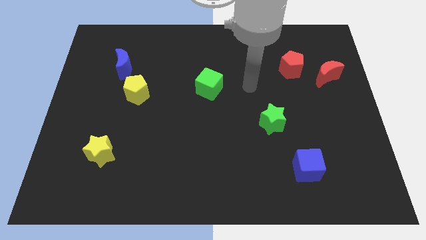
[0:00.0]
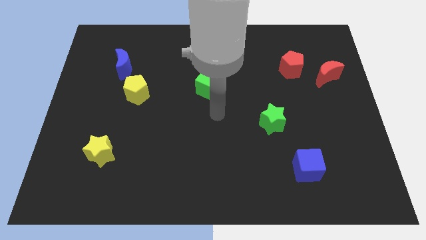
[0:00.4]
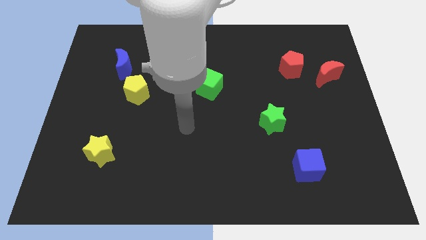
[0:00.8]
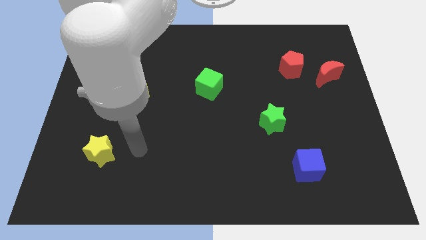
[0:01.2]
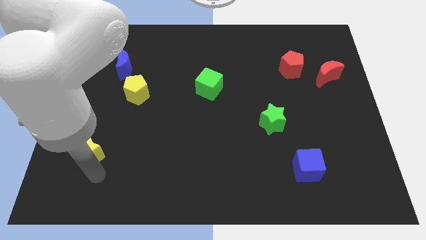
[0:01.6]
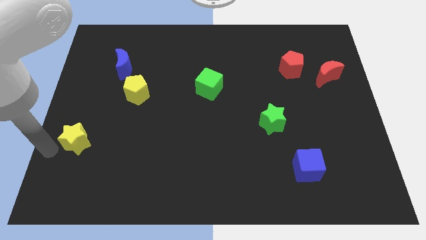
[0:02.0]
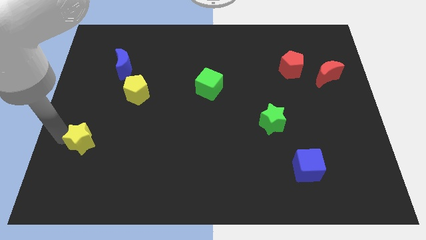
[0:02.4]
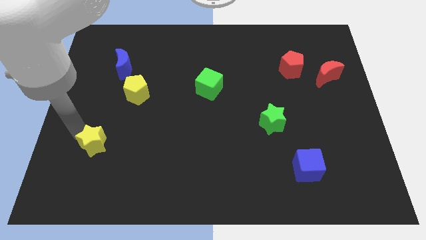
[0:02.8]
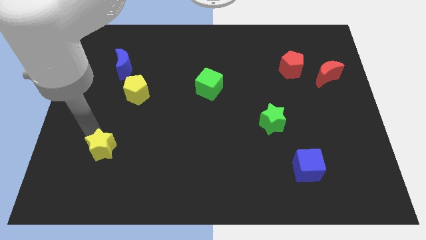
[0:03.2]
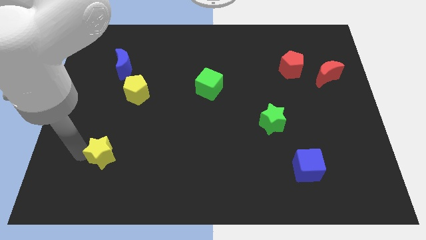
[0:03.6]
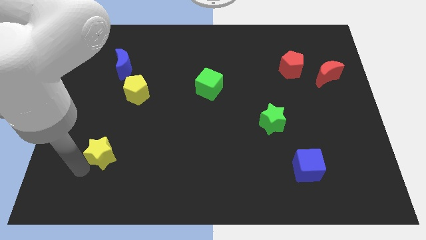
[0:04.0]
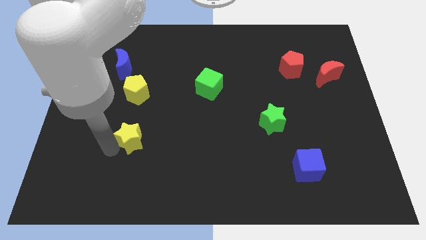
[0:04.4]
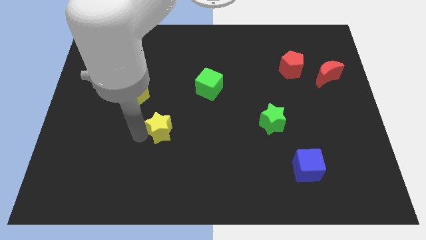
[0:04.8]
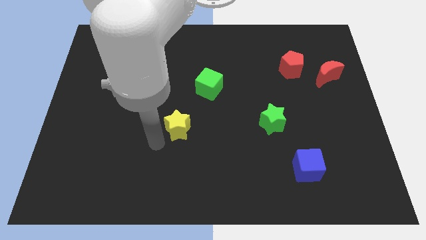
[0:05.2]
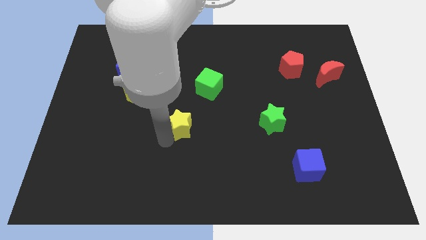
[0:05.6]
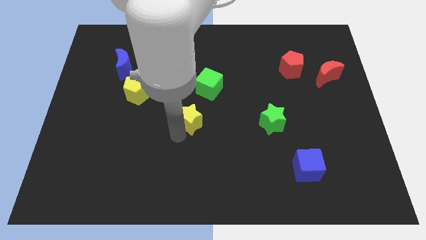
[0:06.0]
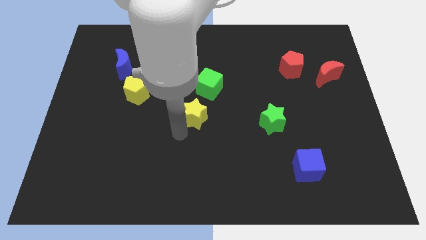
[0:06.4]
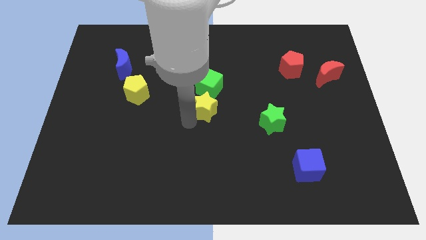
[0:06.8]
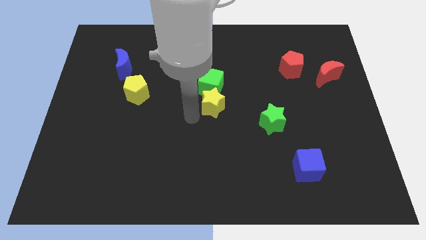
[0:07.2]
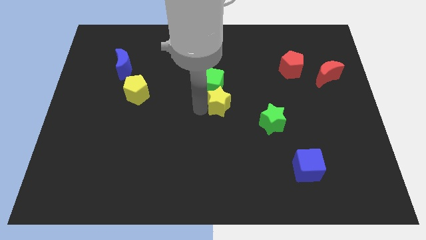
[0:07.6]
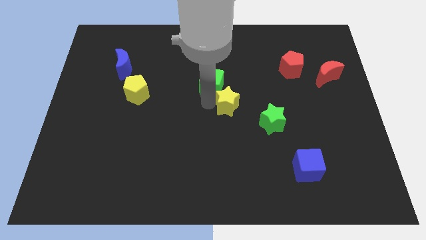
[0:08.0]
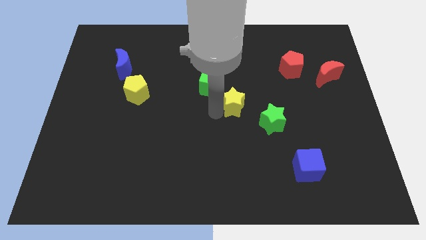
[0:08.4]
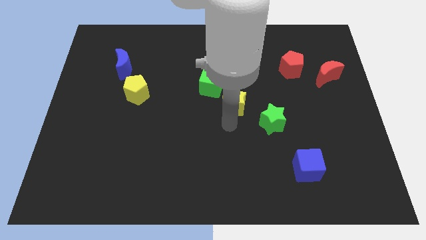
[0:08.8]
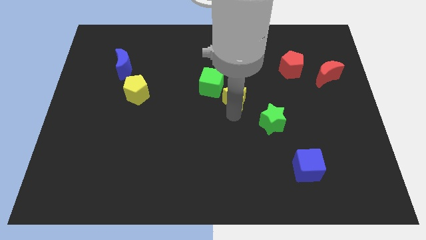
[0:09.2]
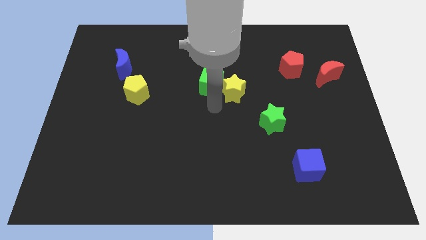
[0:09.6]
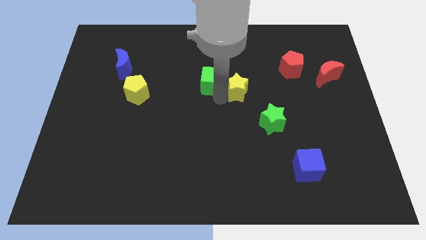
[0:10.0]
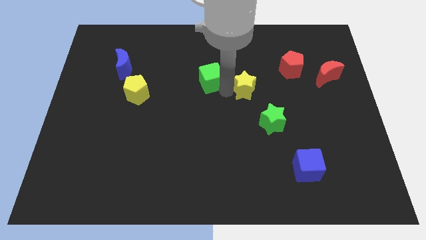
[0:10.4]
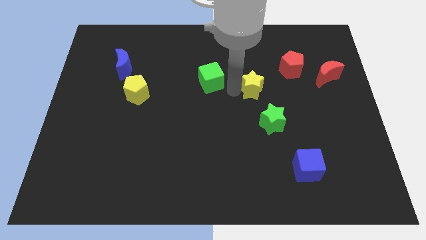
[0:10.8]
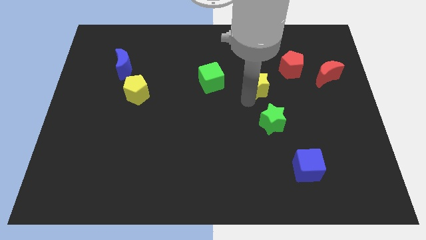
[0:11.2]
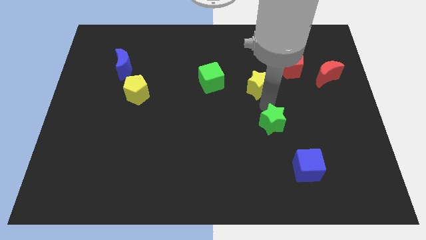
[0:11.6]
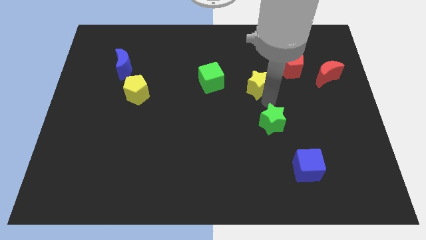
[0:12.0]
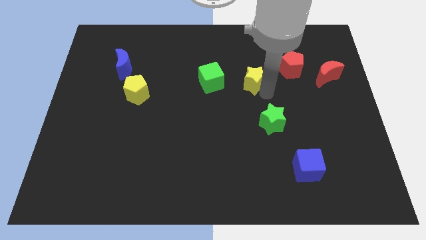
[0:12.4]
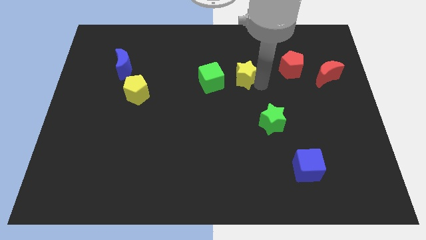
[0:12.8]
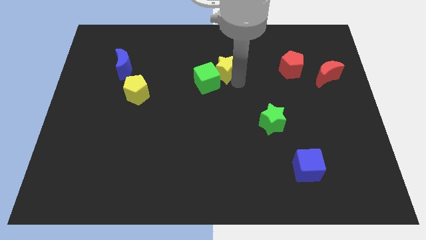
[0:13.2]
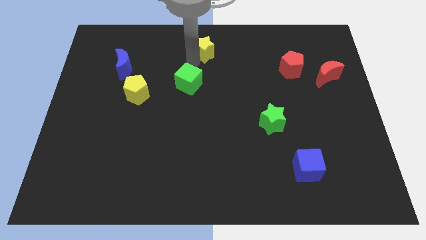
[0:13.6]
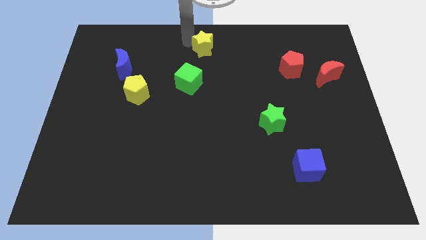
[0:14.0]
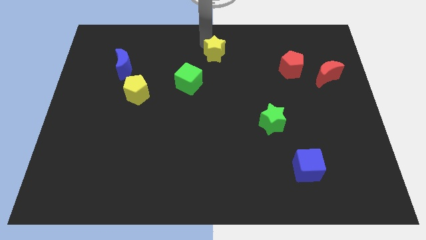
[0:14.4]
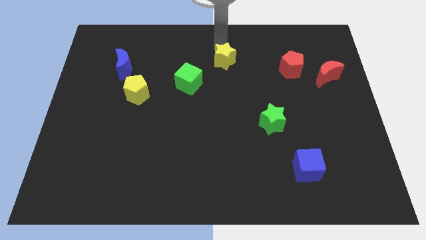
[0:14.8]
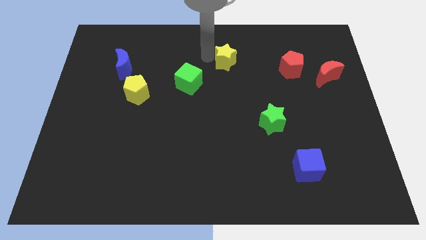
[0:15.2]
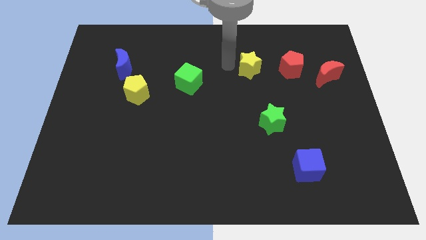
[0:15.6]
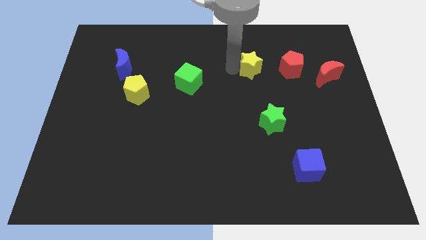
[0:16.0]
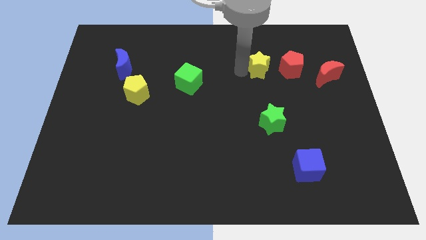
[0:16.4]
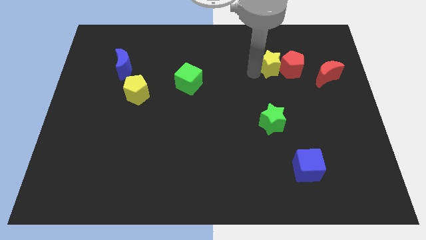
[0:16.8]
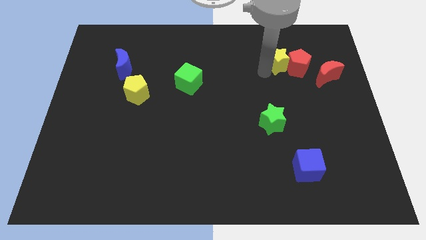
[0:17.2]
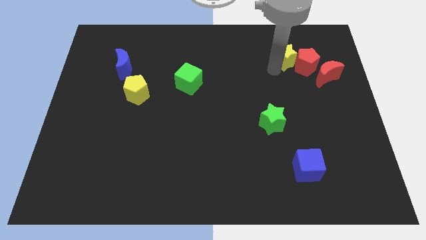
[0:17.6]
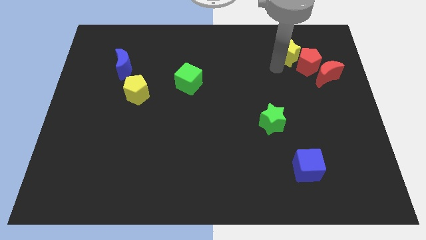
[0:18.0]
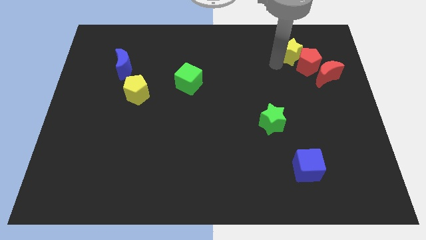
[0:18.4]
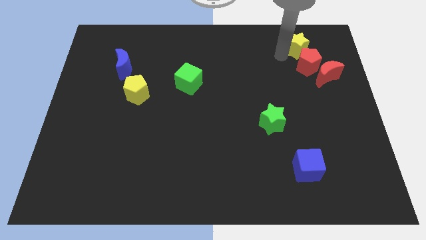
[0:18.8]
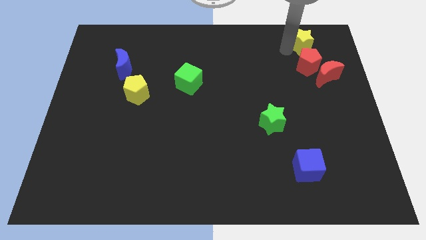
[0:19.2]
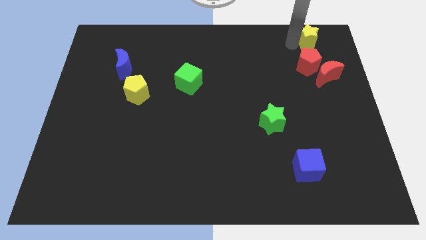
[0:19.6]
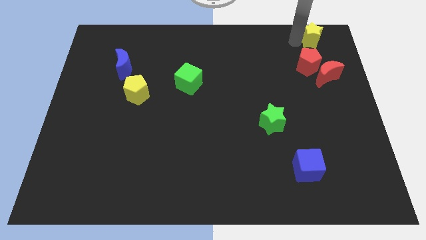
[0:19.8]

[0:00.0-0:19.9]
slide the yellow star to the top right corner

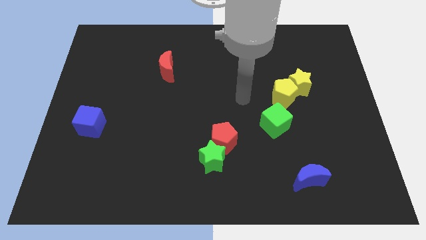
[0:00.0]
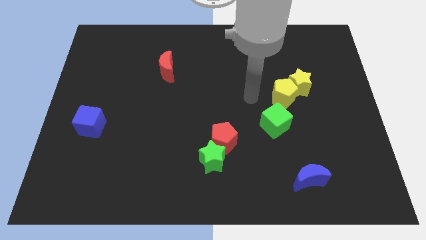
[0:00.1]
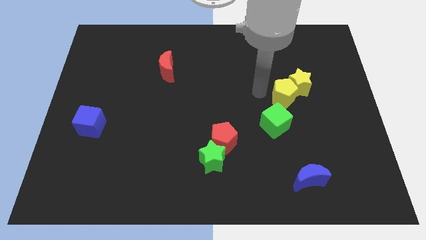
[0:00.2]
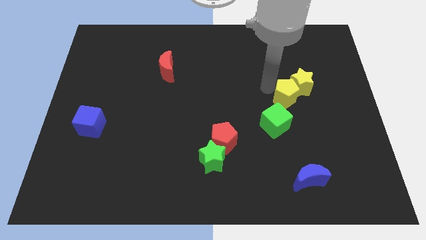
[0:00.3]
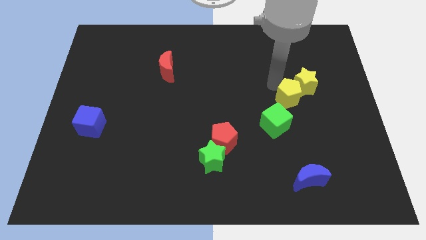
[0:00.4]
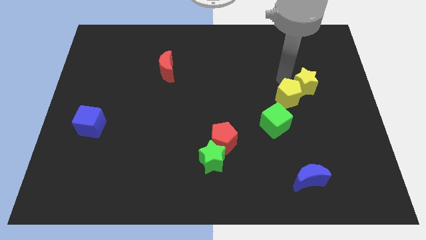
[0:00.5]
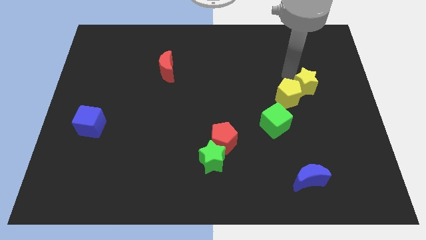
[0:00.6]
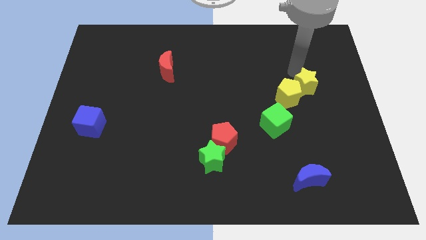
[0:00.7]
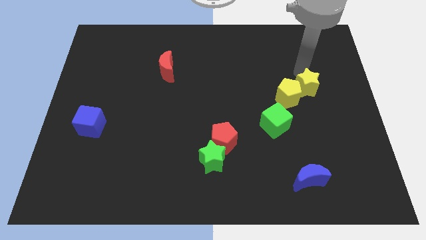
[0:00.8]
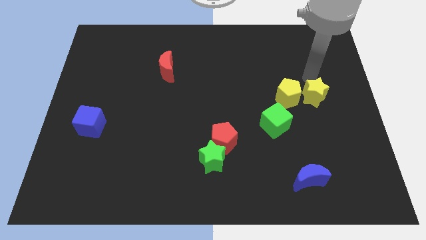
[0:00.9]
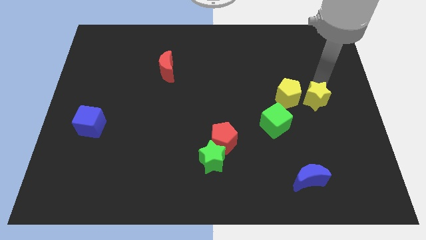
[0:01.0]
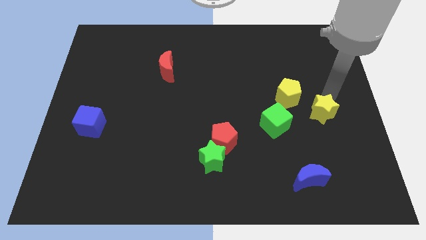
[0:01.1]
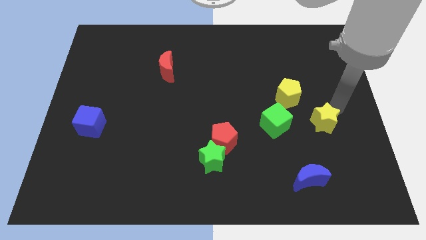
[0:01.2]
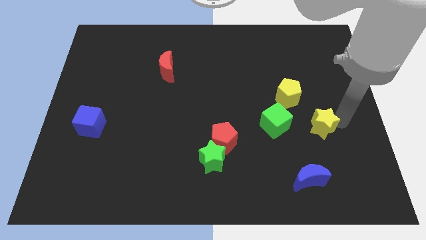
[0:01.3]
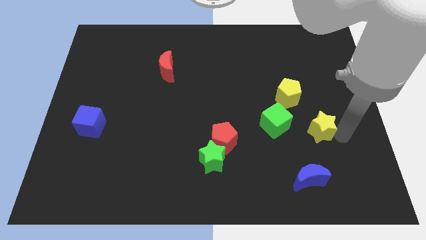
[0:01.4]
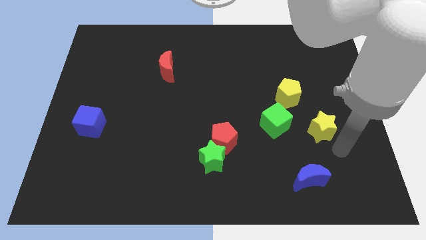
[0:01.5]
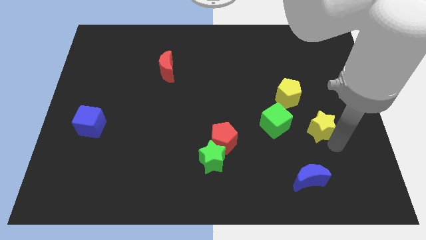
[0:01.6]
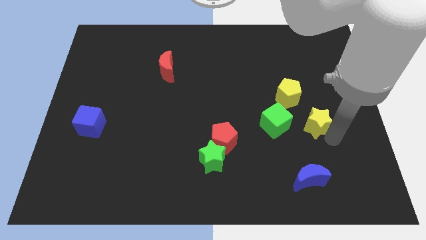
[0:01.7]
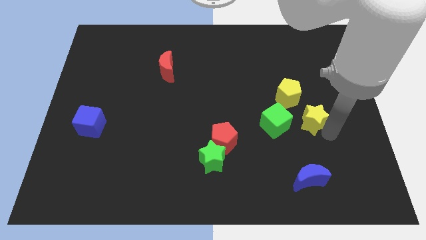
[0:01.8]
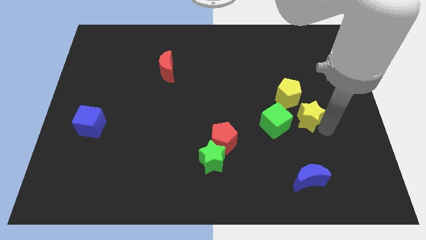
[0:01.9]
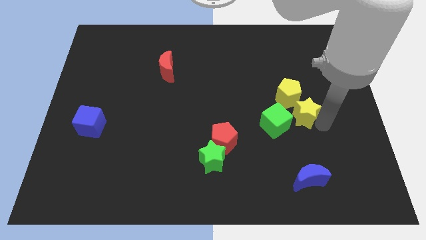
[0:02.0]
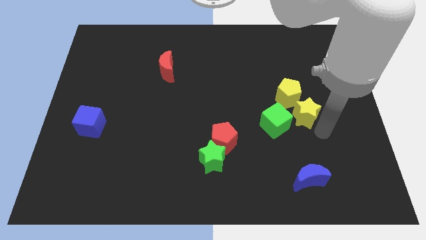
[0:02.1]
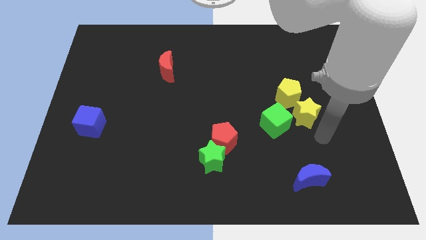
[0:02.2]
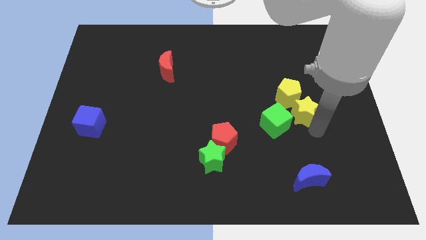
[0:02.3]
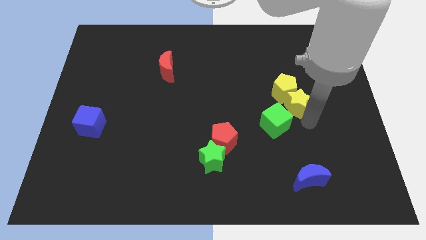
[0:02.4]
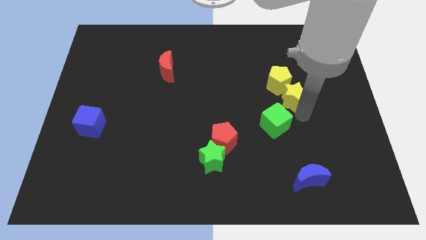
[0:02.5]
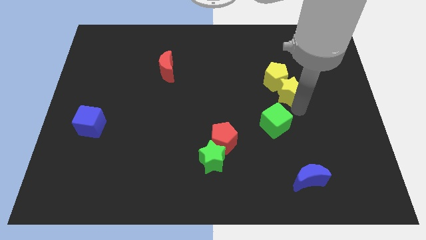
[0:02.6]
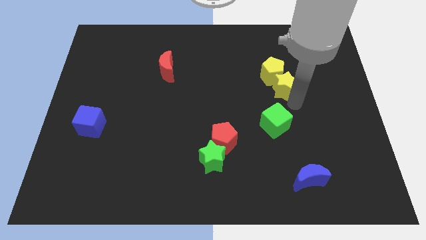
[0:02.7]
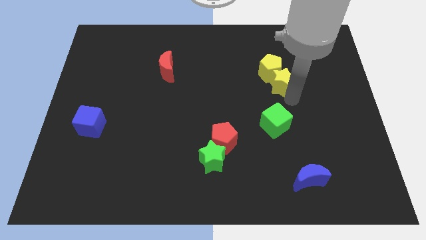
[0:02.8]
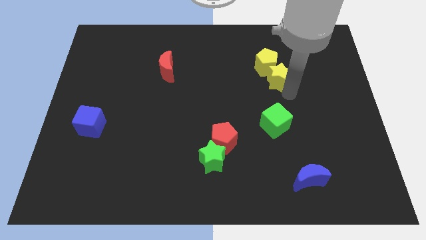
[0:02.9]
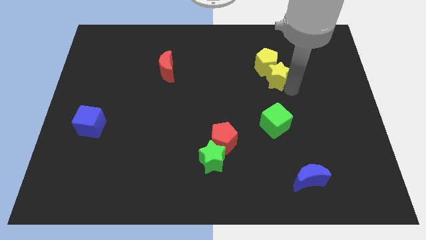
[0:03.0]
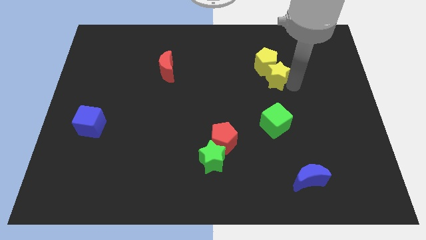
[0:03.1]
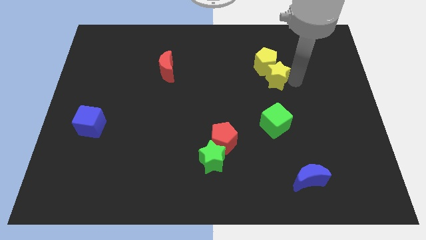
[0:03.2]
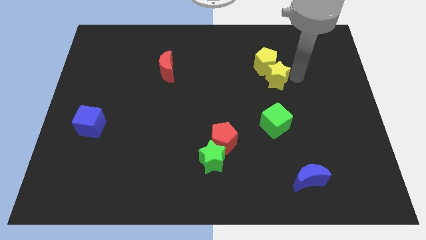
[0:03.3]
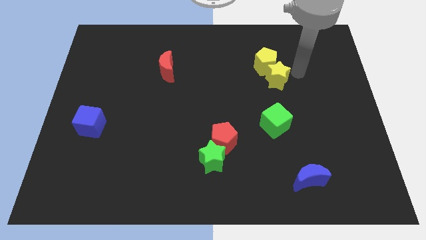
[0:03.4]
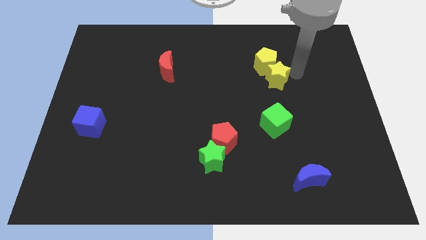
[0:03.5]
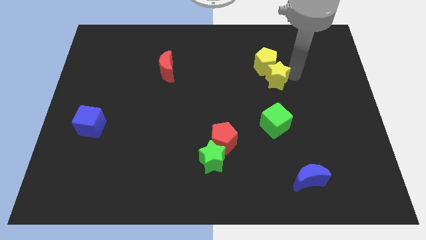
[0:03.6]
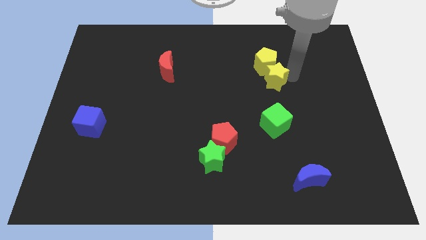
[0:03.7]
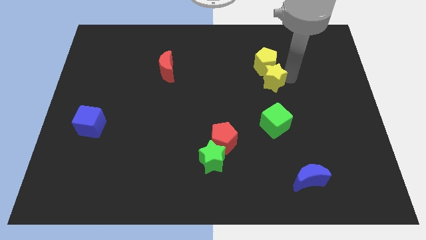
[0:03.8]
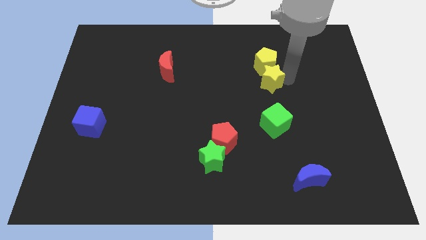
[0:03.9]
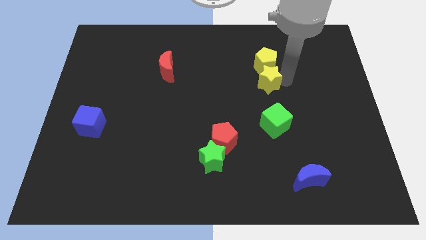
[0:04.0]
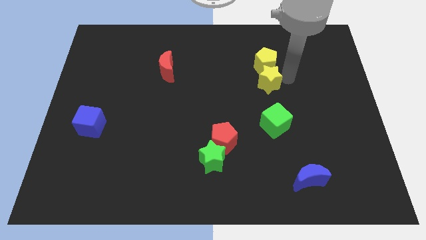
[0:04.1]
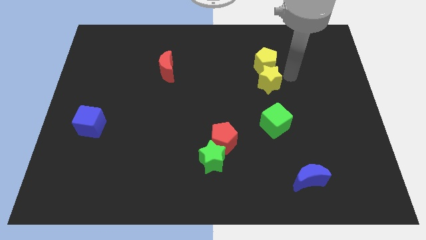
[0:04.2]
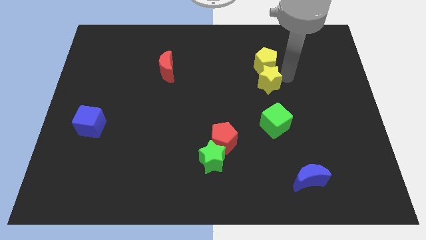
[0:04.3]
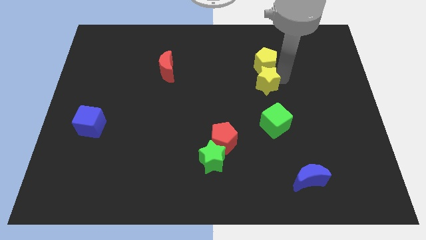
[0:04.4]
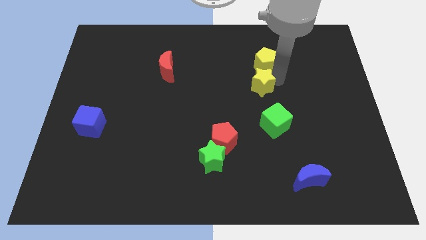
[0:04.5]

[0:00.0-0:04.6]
slide the yellow star to the middle
